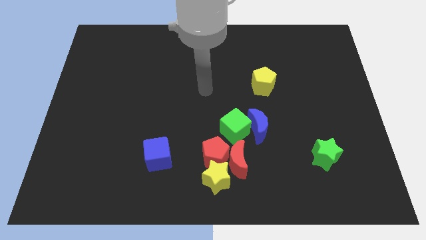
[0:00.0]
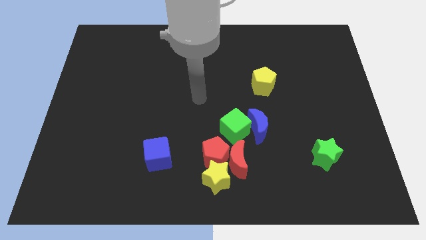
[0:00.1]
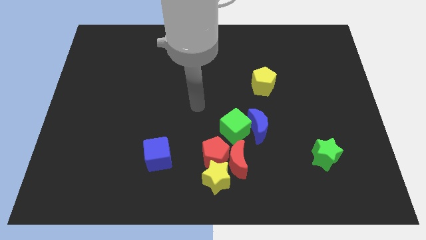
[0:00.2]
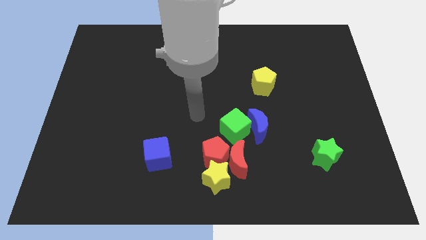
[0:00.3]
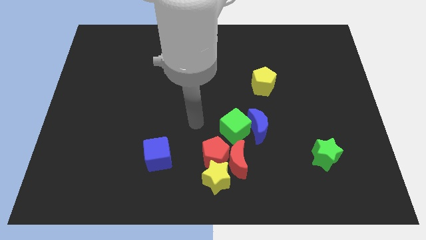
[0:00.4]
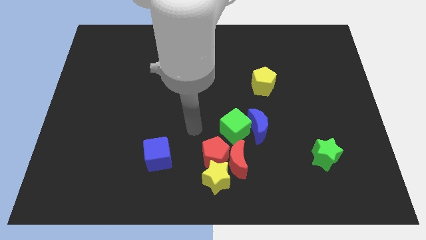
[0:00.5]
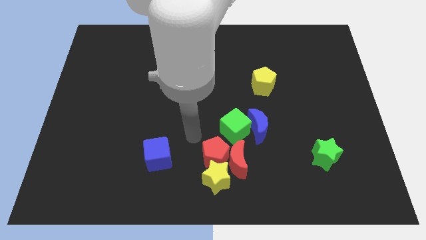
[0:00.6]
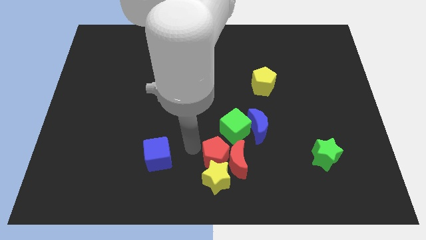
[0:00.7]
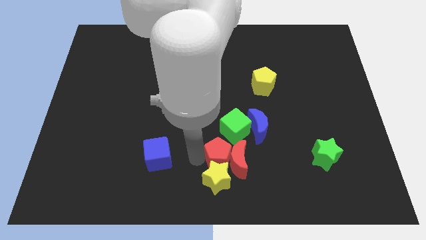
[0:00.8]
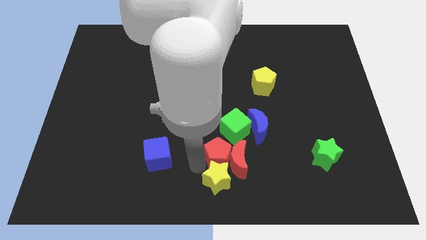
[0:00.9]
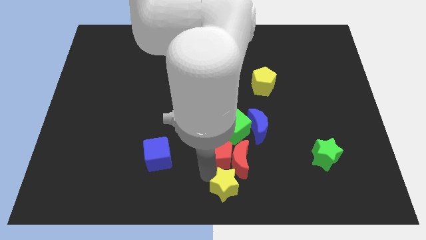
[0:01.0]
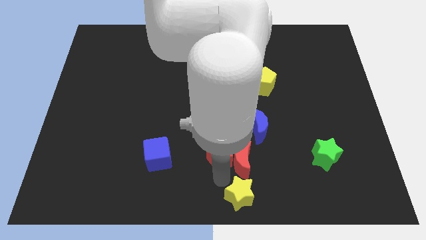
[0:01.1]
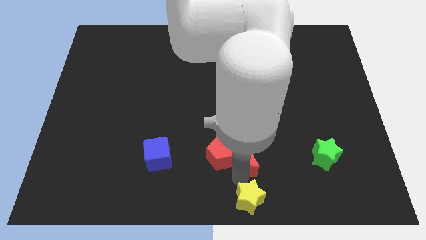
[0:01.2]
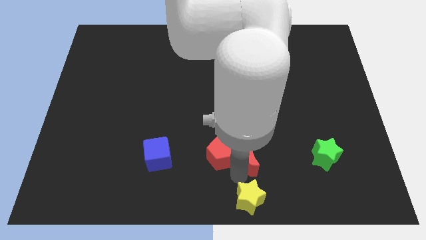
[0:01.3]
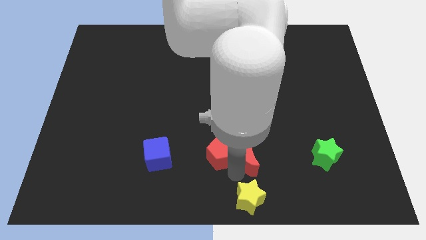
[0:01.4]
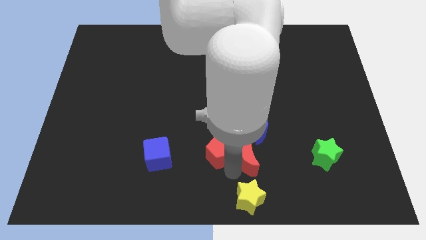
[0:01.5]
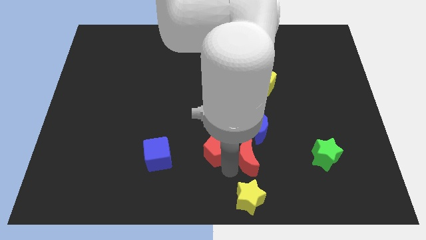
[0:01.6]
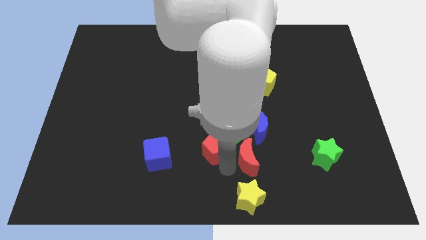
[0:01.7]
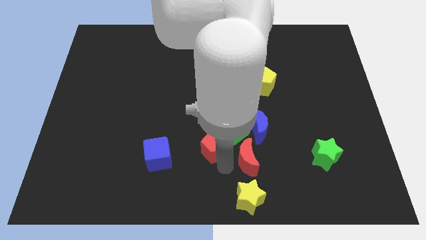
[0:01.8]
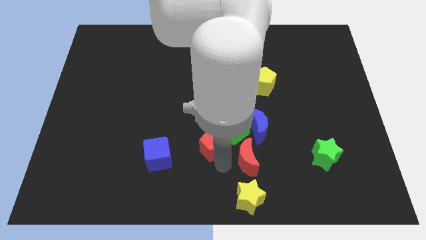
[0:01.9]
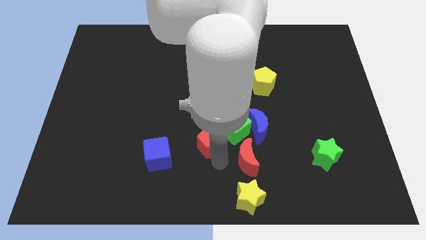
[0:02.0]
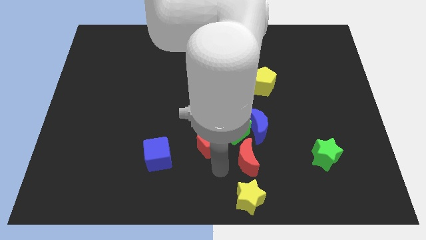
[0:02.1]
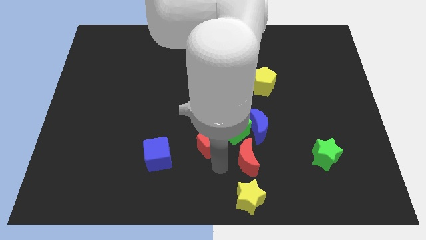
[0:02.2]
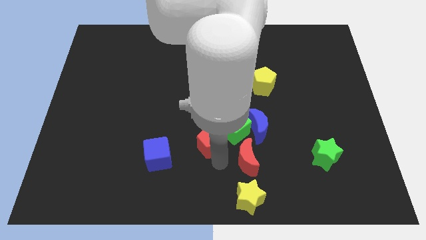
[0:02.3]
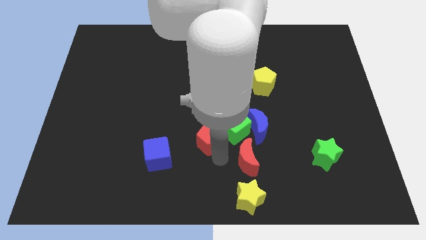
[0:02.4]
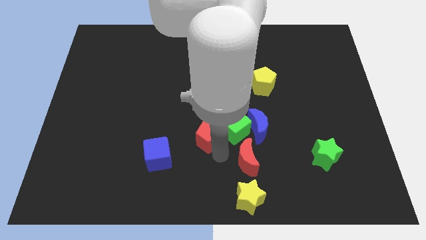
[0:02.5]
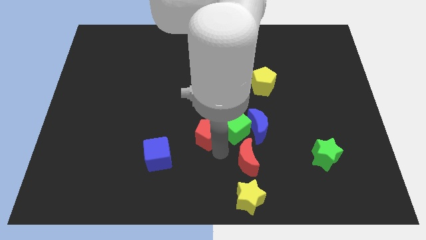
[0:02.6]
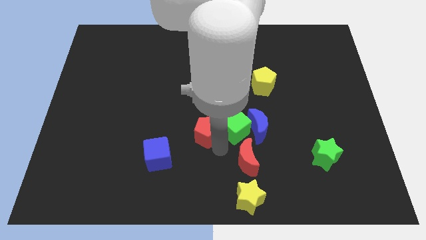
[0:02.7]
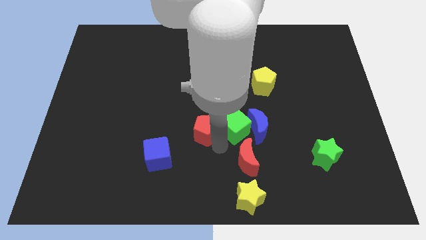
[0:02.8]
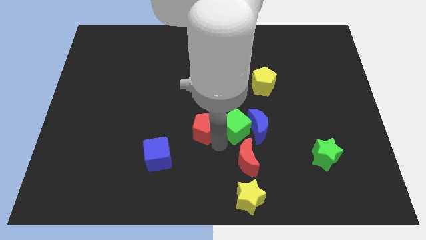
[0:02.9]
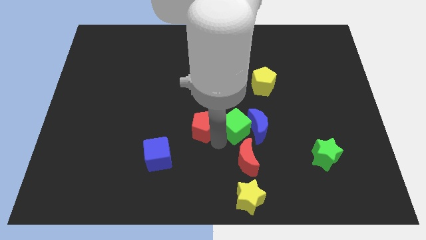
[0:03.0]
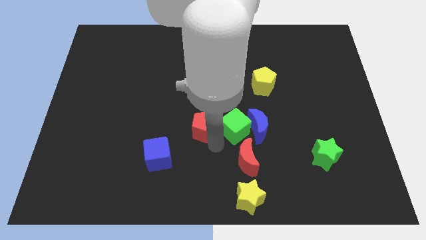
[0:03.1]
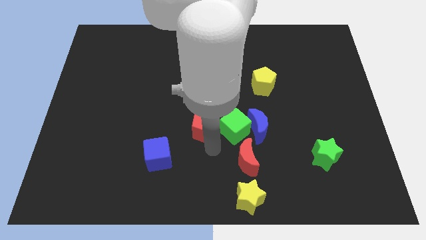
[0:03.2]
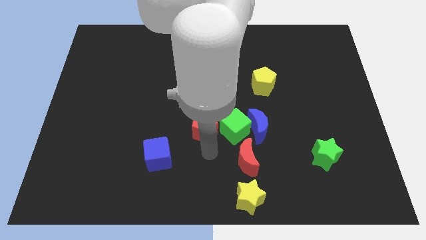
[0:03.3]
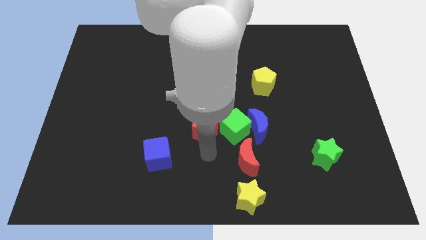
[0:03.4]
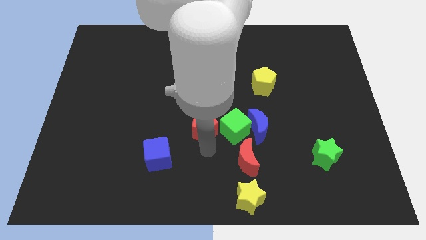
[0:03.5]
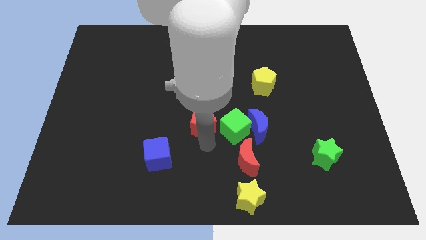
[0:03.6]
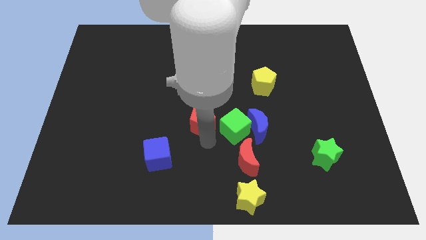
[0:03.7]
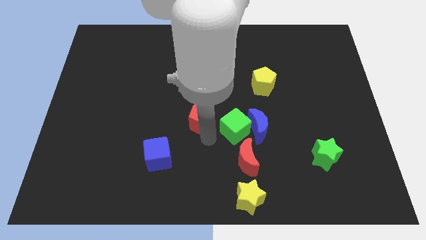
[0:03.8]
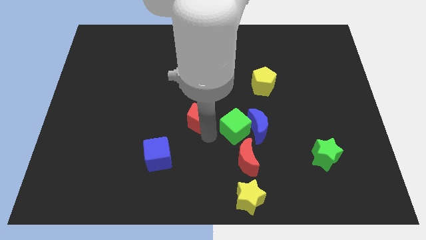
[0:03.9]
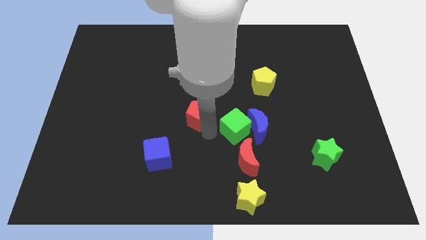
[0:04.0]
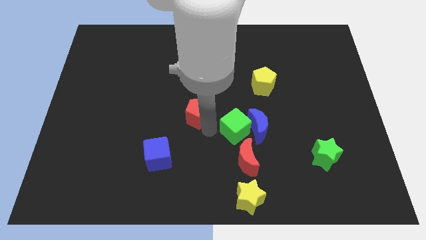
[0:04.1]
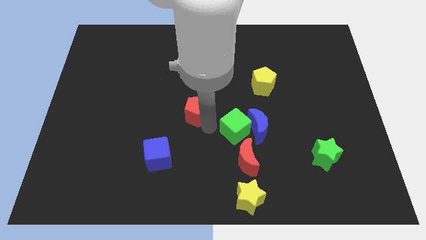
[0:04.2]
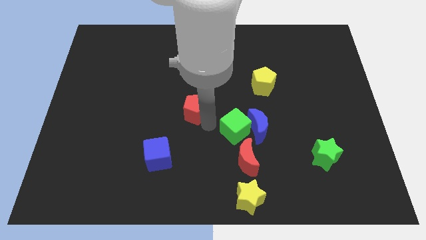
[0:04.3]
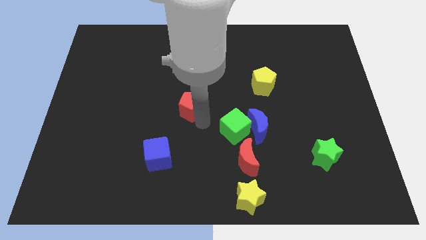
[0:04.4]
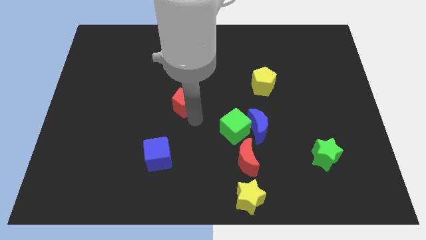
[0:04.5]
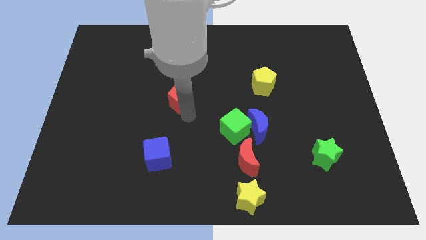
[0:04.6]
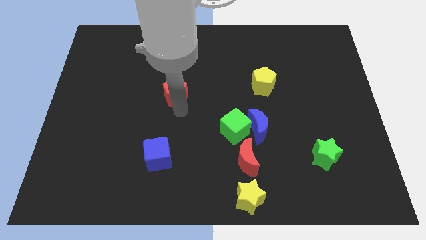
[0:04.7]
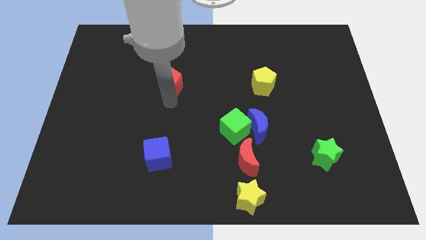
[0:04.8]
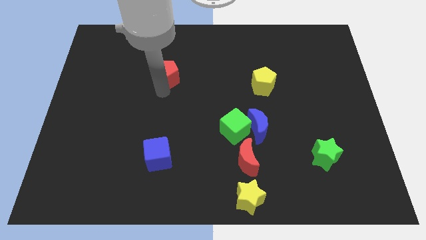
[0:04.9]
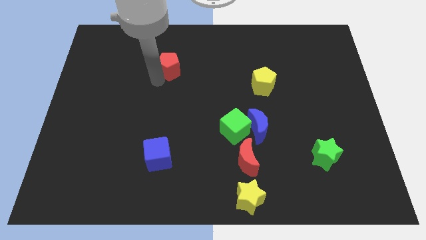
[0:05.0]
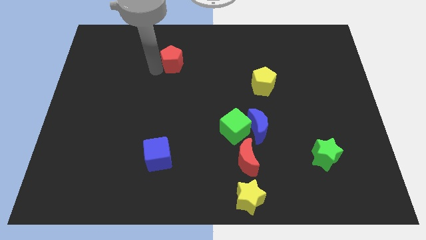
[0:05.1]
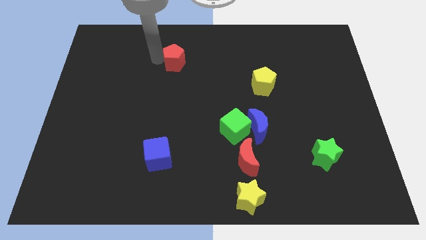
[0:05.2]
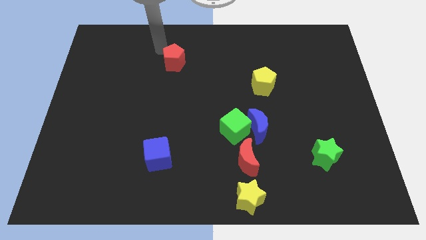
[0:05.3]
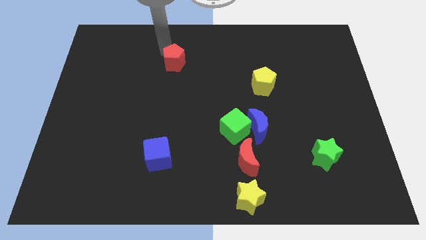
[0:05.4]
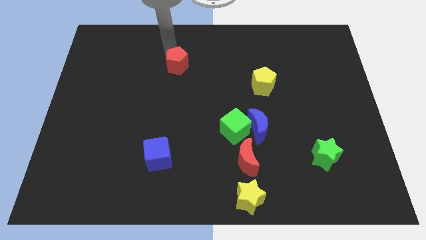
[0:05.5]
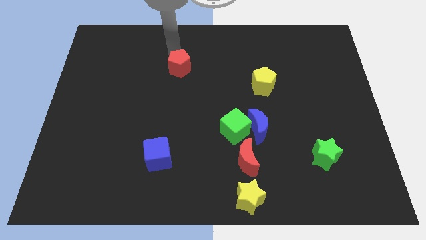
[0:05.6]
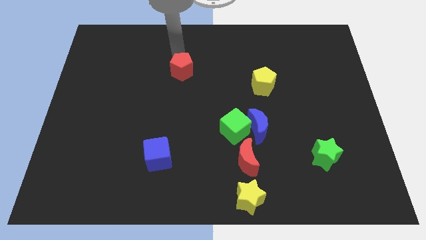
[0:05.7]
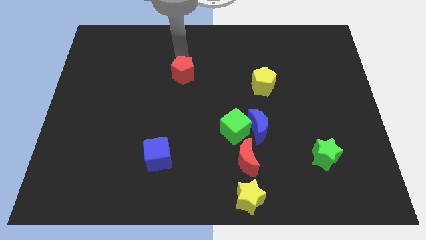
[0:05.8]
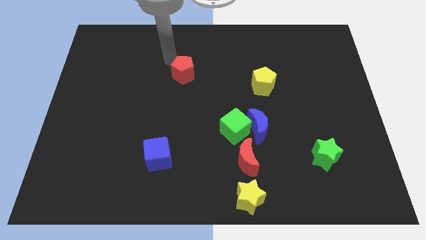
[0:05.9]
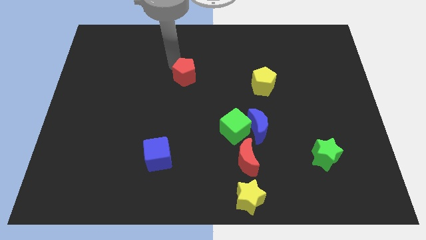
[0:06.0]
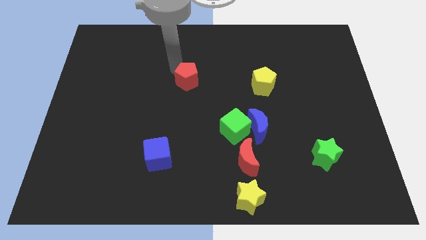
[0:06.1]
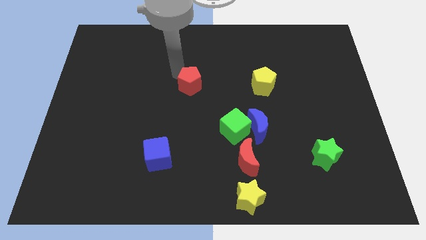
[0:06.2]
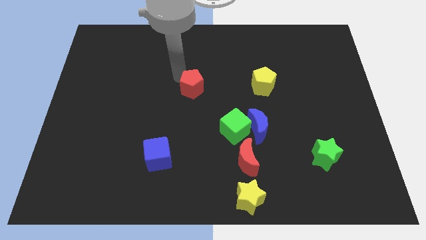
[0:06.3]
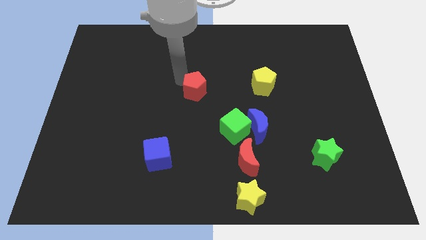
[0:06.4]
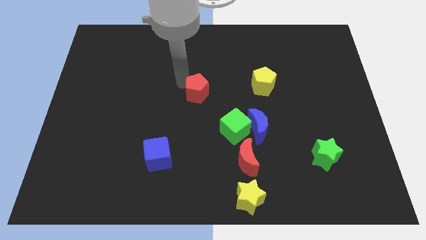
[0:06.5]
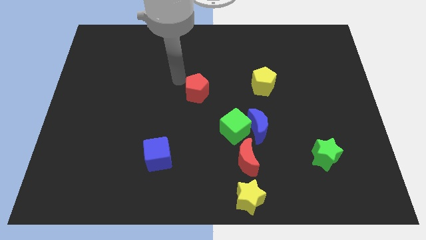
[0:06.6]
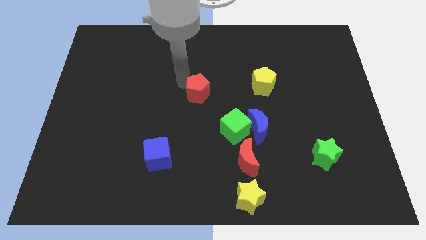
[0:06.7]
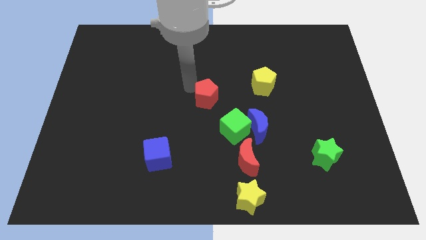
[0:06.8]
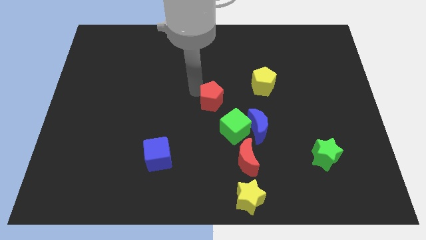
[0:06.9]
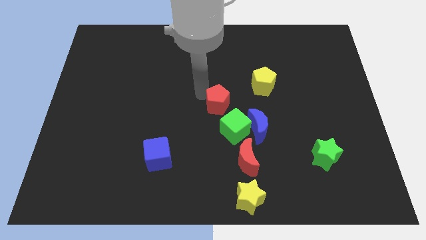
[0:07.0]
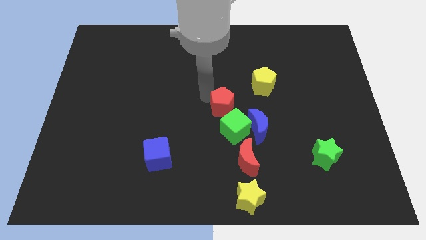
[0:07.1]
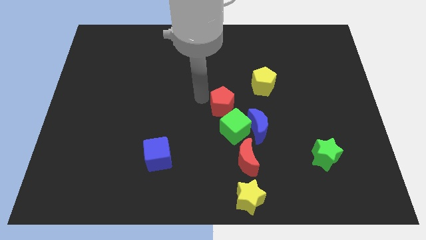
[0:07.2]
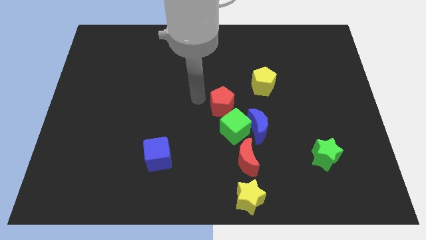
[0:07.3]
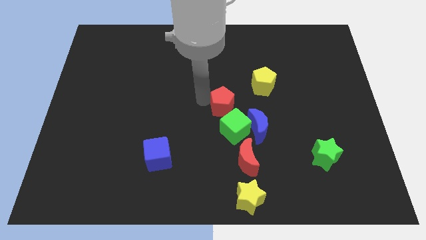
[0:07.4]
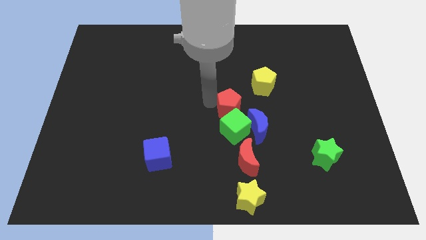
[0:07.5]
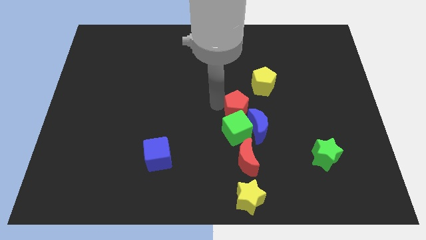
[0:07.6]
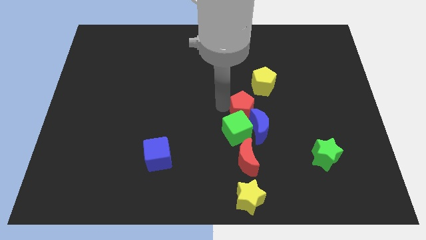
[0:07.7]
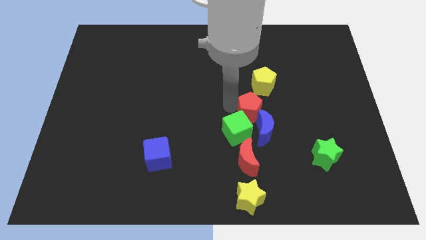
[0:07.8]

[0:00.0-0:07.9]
put the red pentagon next to the blue moon
